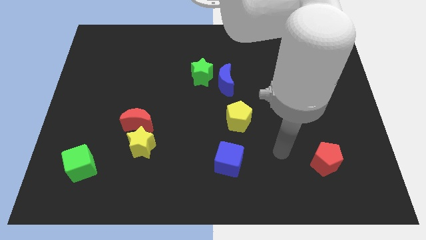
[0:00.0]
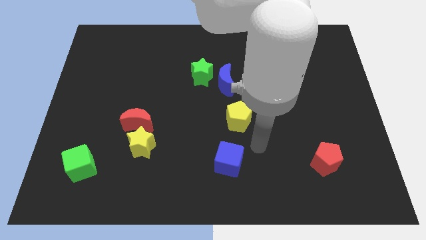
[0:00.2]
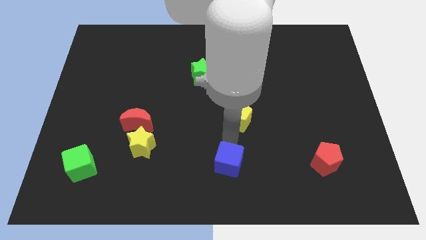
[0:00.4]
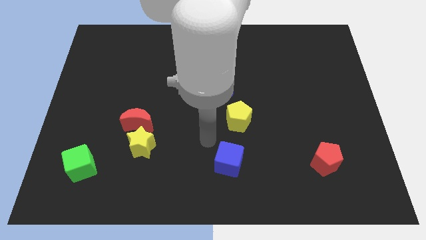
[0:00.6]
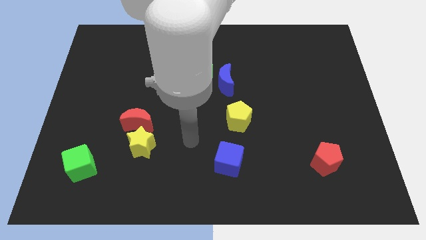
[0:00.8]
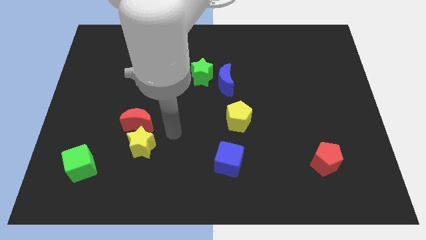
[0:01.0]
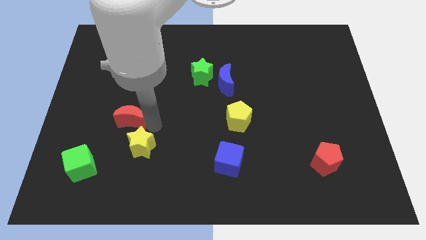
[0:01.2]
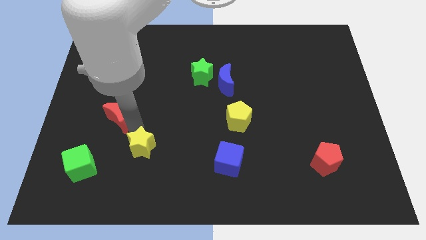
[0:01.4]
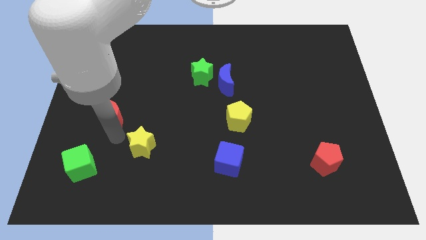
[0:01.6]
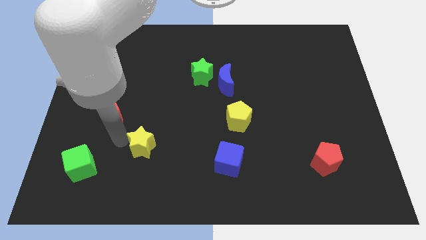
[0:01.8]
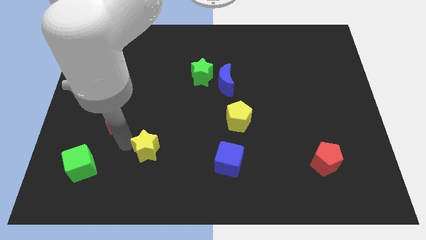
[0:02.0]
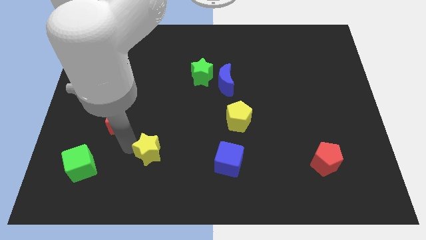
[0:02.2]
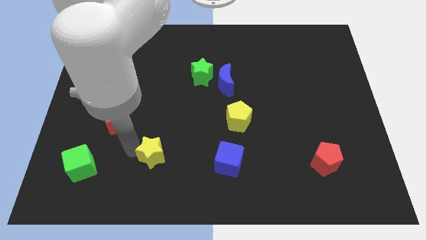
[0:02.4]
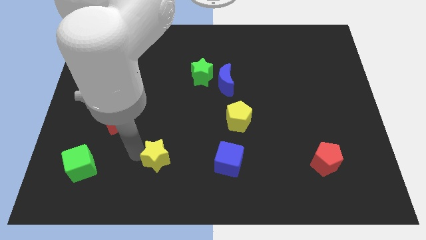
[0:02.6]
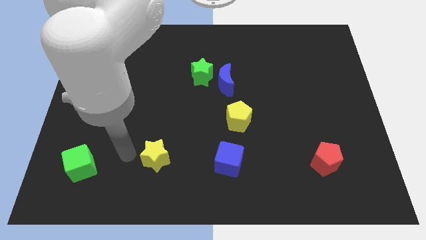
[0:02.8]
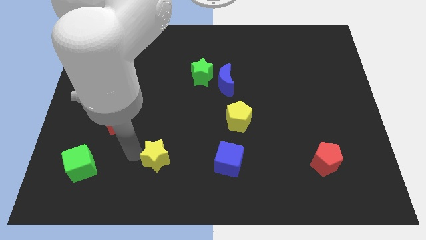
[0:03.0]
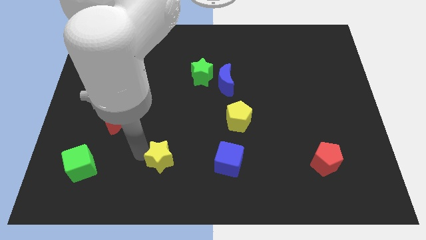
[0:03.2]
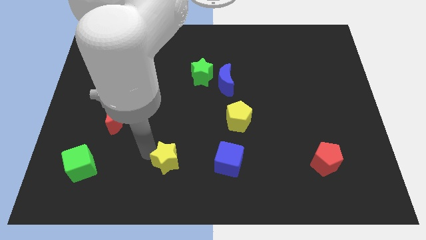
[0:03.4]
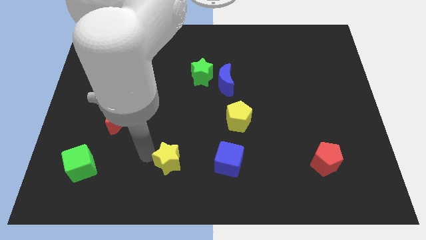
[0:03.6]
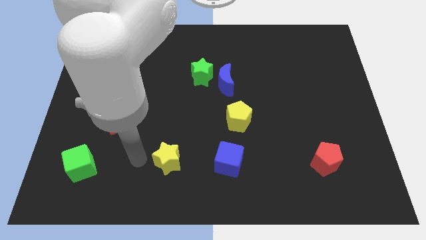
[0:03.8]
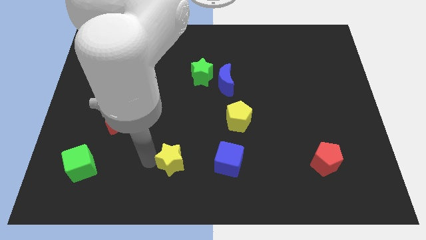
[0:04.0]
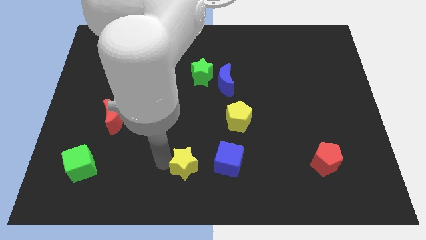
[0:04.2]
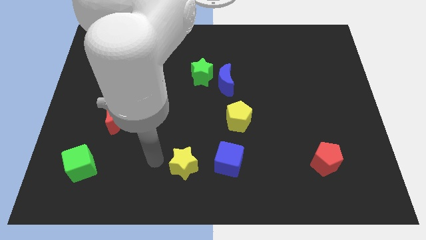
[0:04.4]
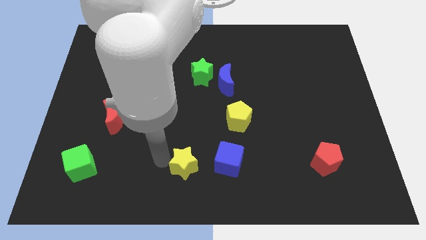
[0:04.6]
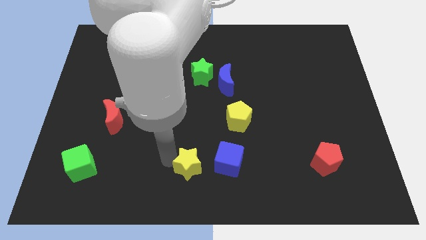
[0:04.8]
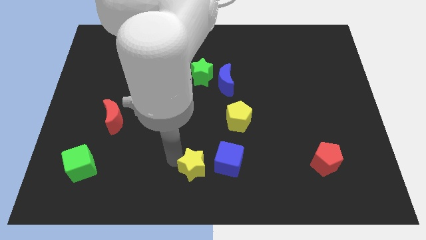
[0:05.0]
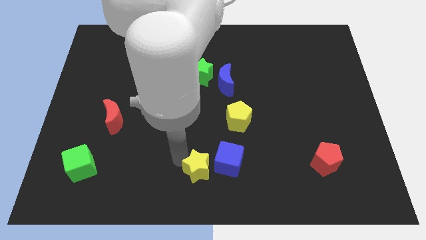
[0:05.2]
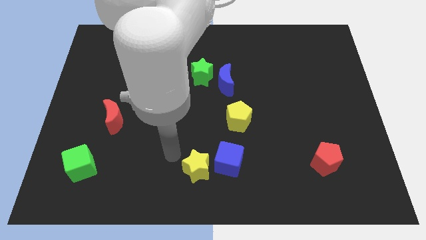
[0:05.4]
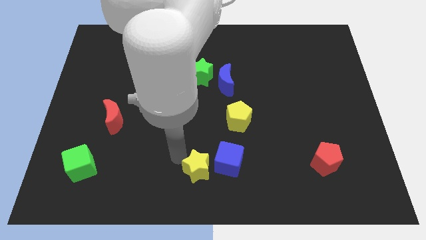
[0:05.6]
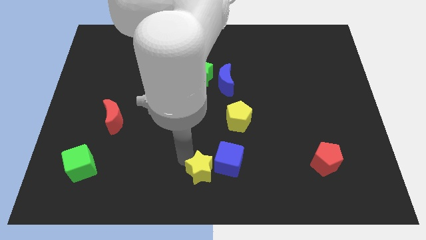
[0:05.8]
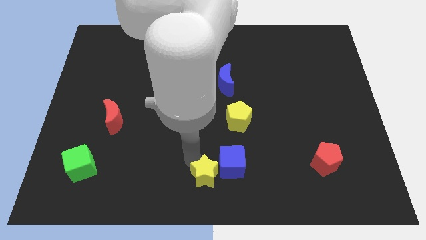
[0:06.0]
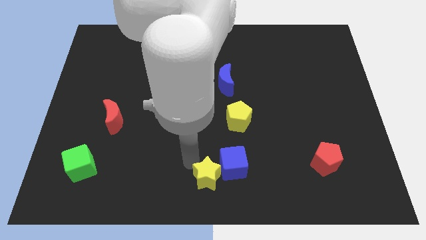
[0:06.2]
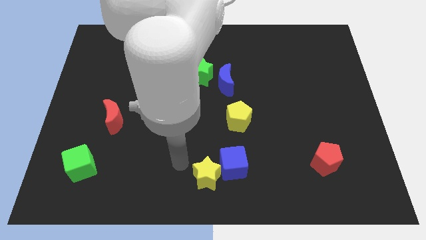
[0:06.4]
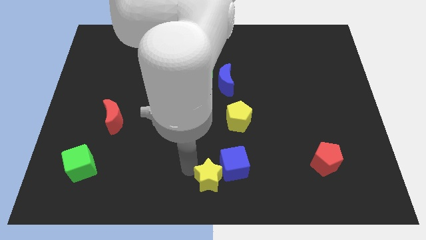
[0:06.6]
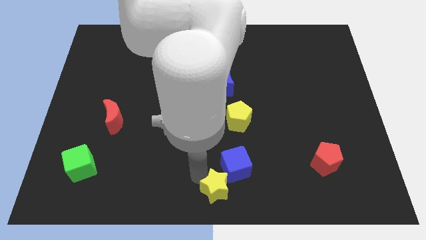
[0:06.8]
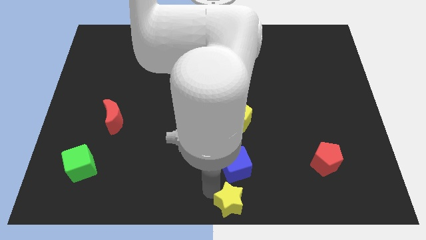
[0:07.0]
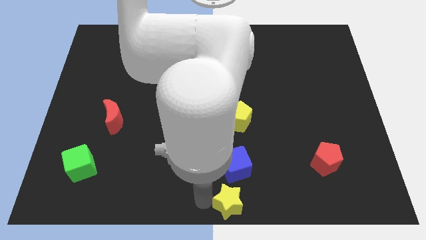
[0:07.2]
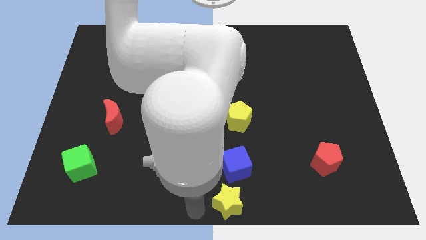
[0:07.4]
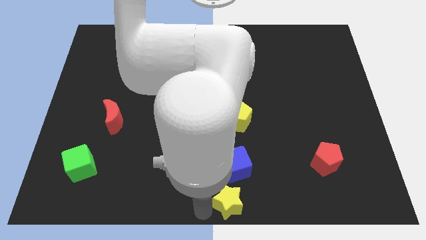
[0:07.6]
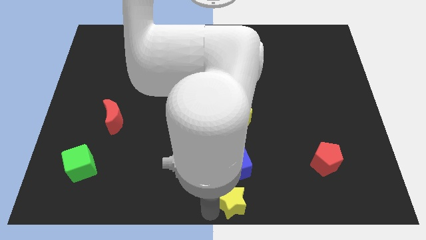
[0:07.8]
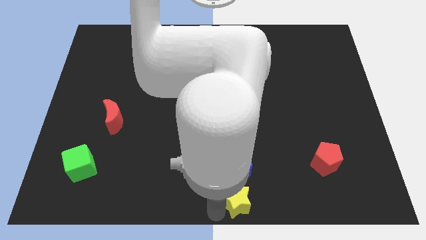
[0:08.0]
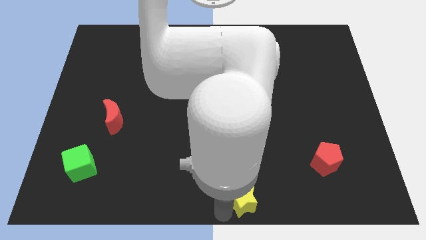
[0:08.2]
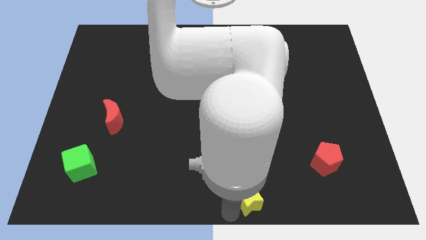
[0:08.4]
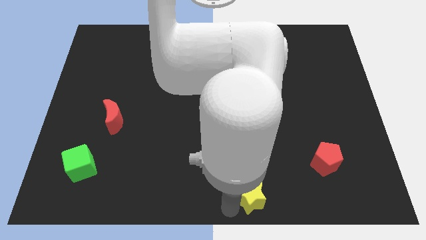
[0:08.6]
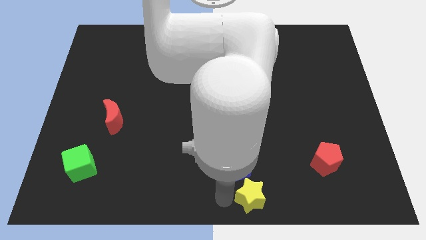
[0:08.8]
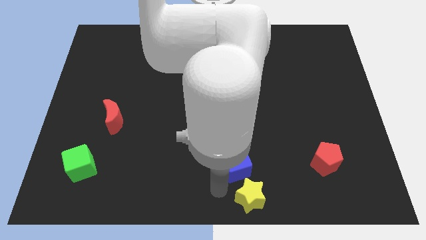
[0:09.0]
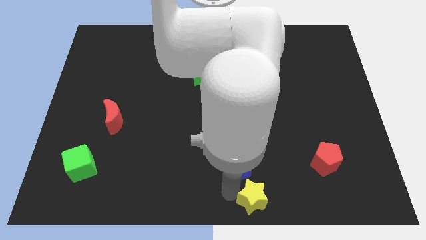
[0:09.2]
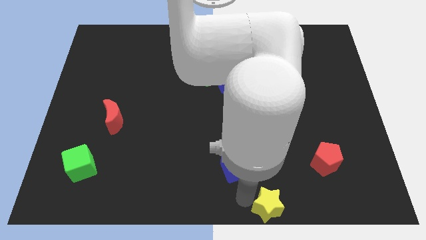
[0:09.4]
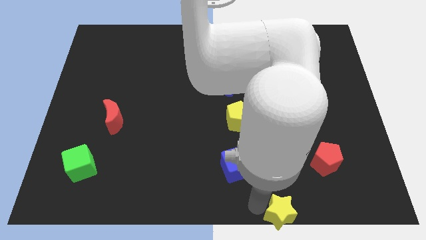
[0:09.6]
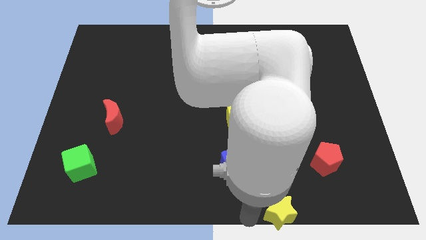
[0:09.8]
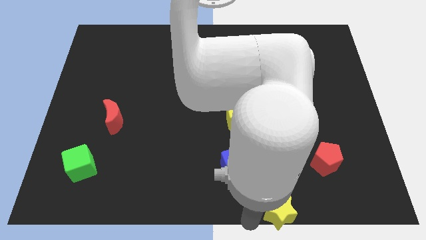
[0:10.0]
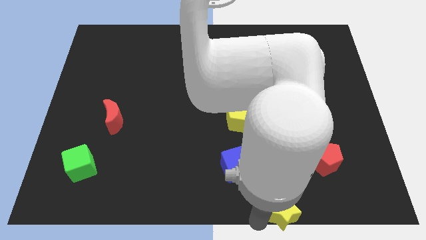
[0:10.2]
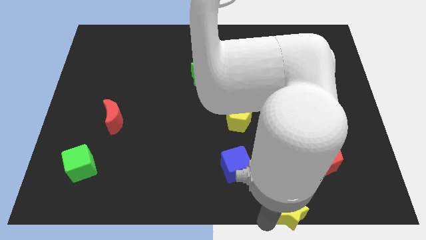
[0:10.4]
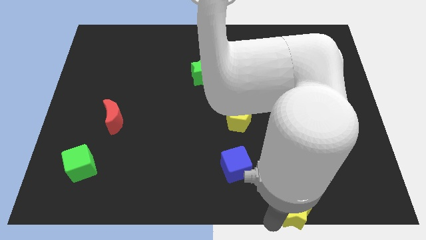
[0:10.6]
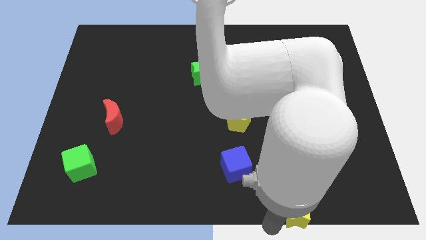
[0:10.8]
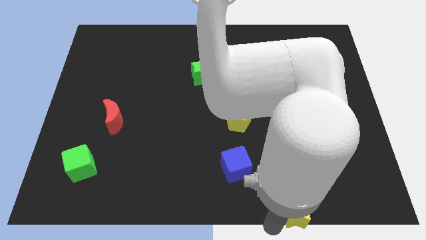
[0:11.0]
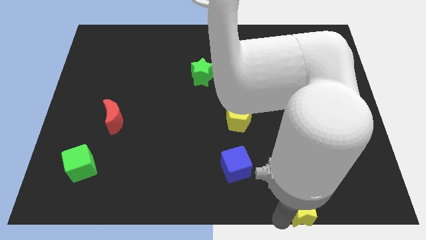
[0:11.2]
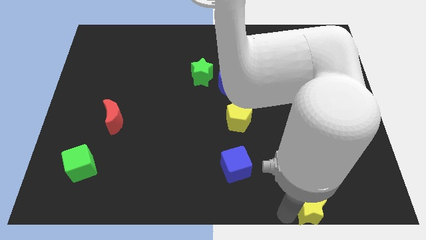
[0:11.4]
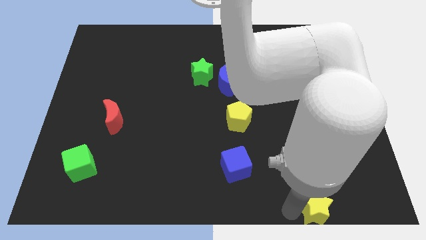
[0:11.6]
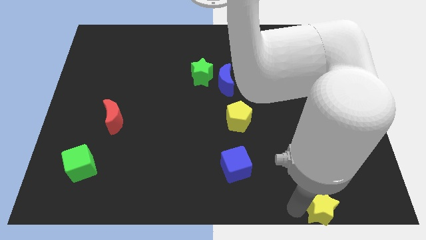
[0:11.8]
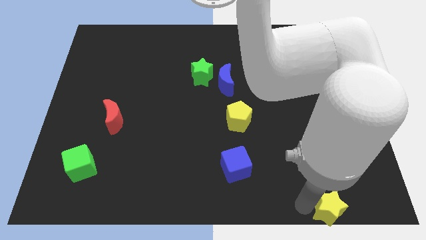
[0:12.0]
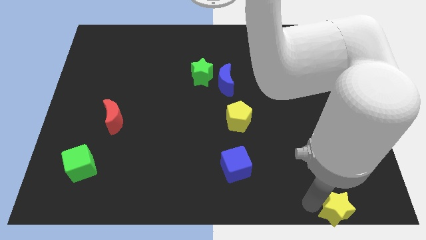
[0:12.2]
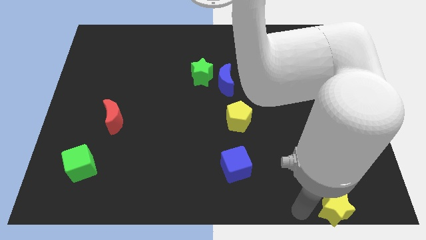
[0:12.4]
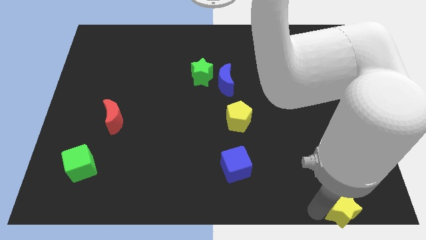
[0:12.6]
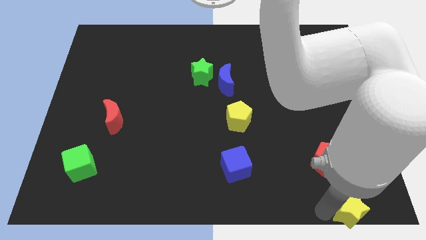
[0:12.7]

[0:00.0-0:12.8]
slide the yellow star to the bottom right corner

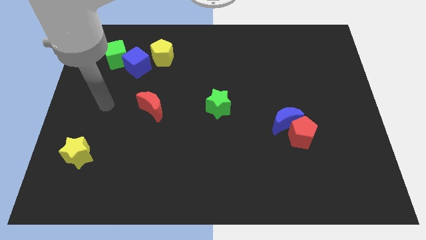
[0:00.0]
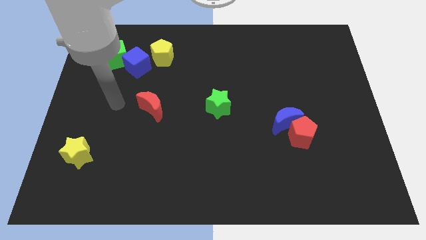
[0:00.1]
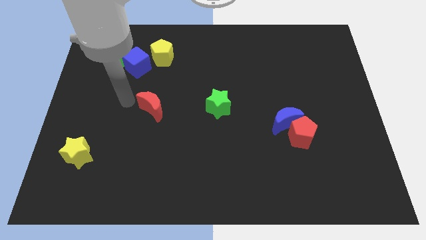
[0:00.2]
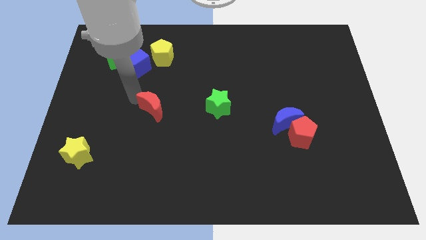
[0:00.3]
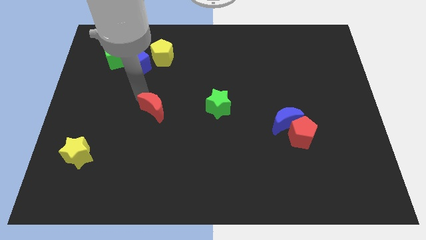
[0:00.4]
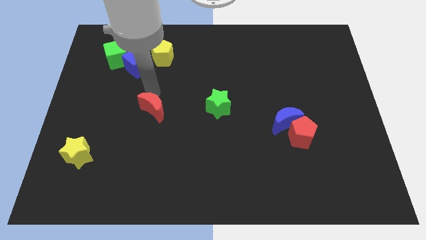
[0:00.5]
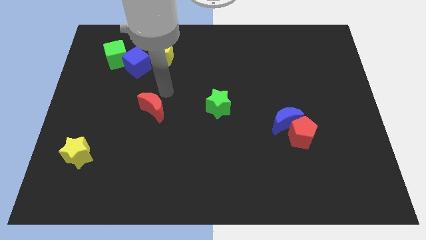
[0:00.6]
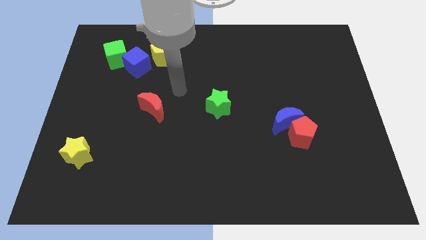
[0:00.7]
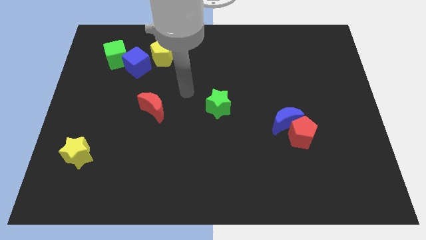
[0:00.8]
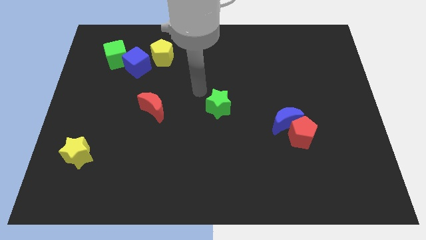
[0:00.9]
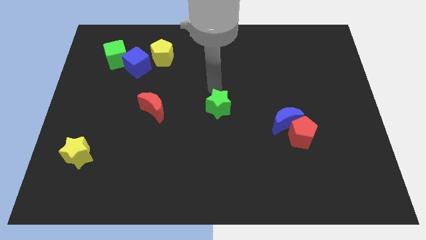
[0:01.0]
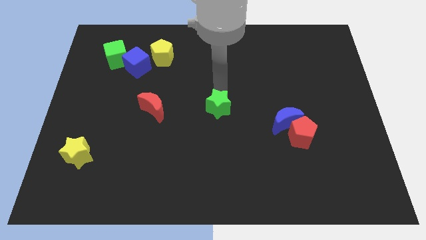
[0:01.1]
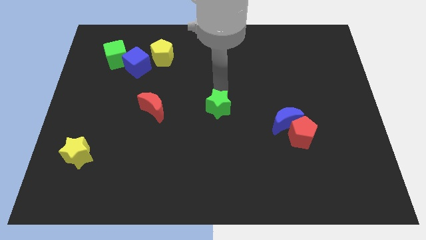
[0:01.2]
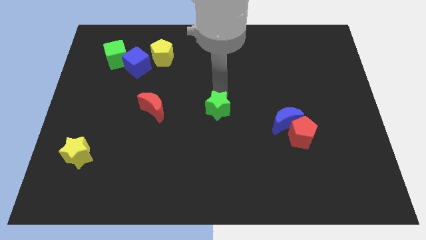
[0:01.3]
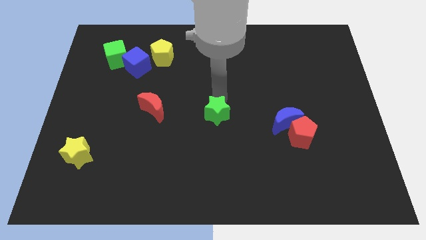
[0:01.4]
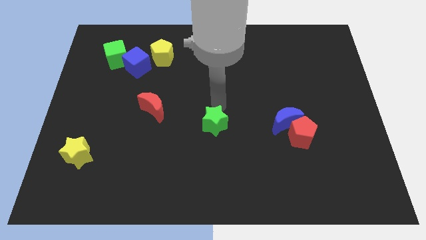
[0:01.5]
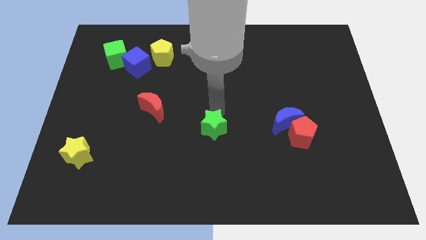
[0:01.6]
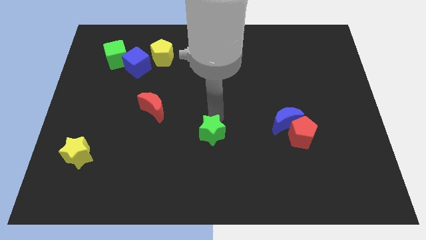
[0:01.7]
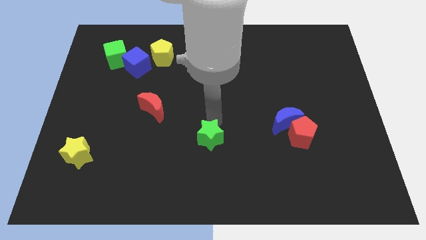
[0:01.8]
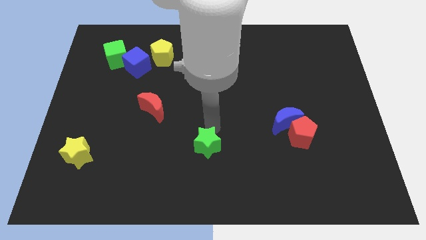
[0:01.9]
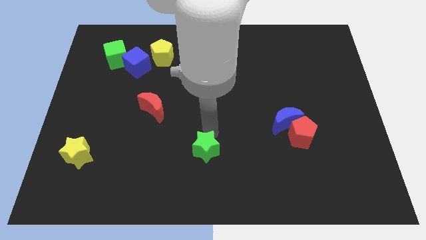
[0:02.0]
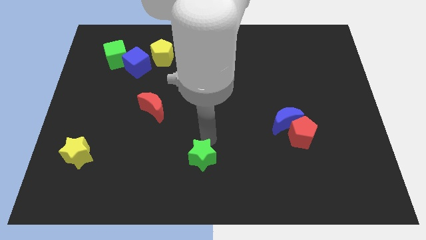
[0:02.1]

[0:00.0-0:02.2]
put the green star to the bottom
